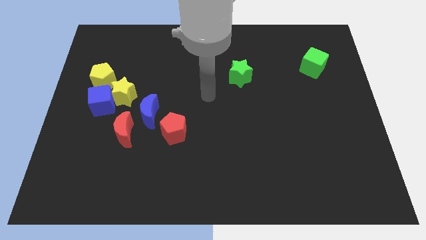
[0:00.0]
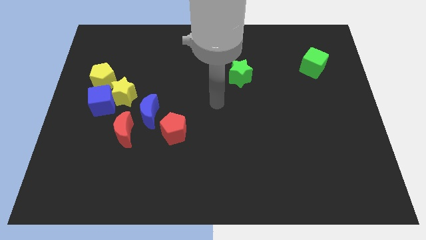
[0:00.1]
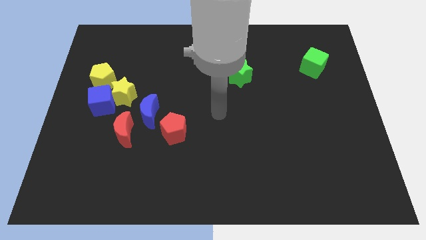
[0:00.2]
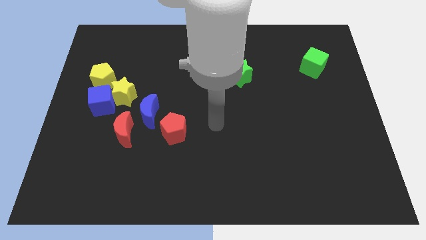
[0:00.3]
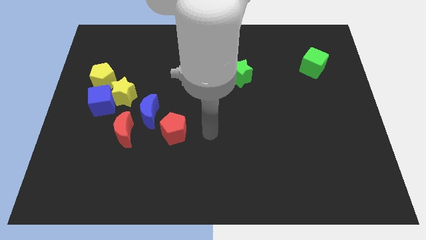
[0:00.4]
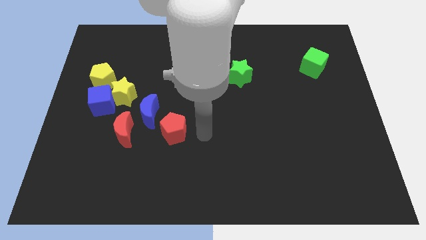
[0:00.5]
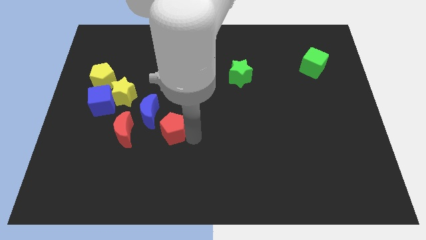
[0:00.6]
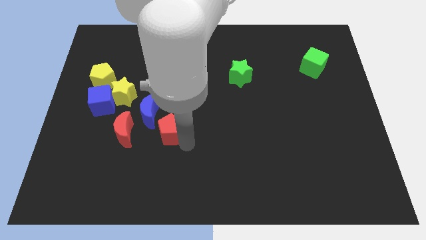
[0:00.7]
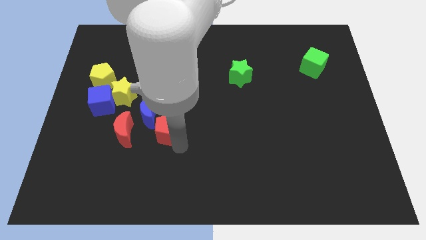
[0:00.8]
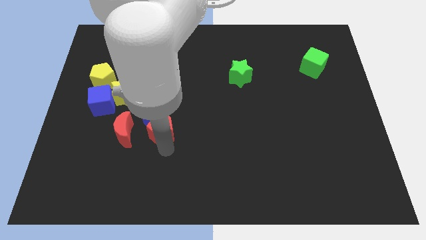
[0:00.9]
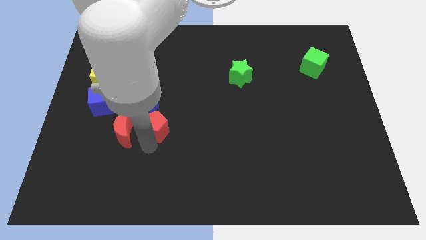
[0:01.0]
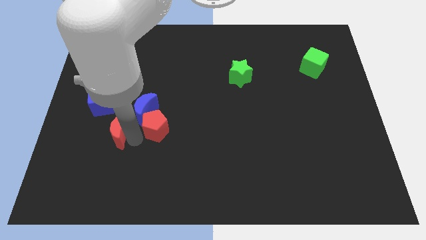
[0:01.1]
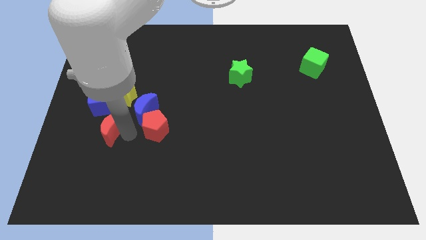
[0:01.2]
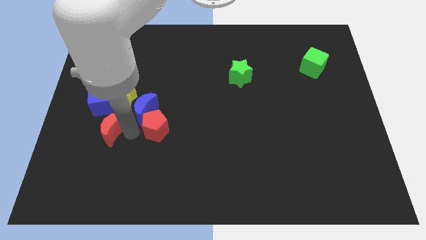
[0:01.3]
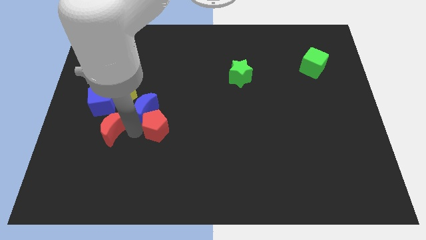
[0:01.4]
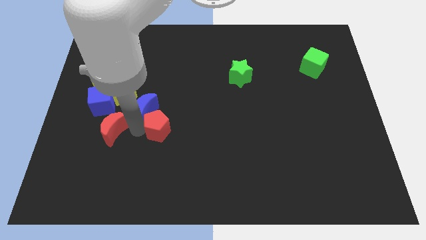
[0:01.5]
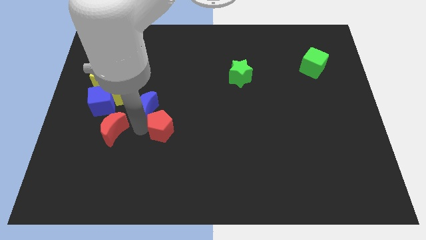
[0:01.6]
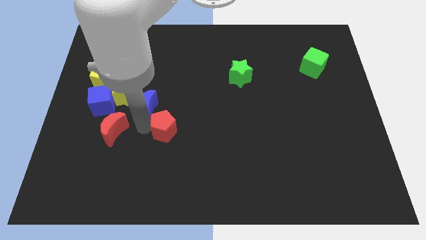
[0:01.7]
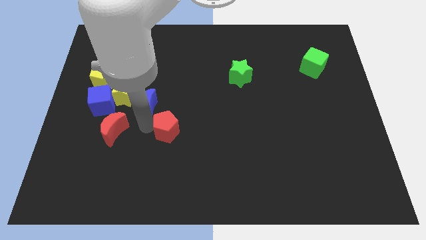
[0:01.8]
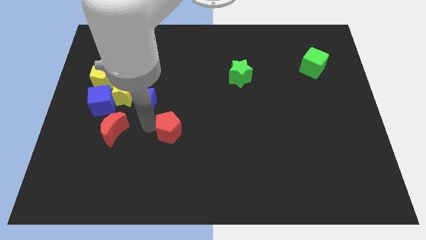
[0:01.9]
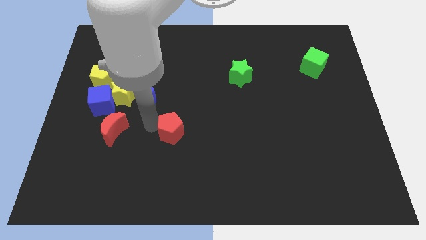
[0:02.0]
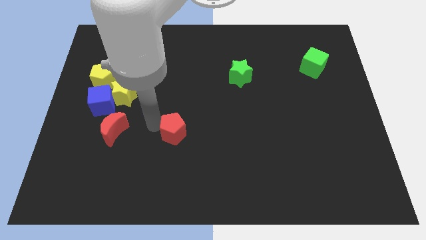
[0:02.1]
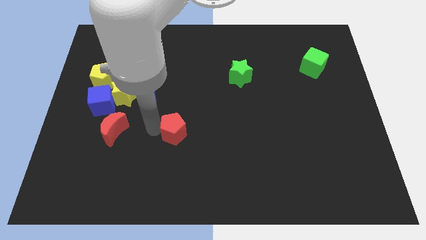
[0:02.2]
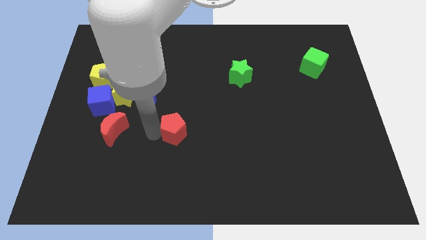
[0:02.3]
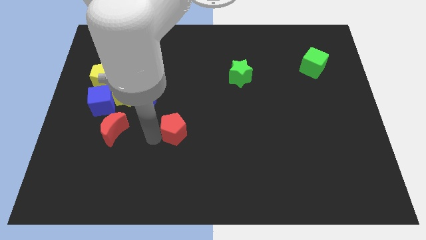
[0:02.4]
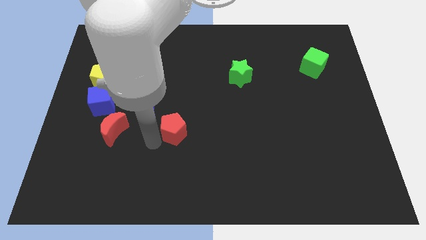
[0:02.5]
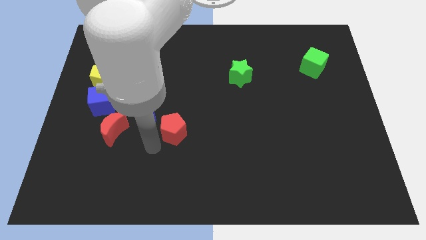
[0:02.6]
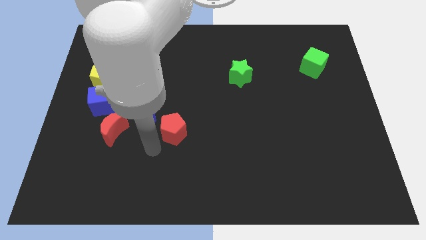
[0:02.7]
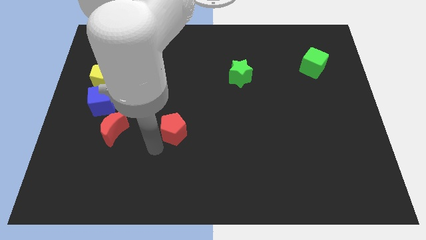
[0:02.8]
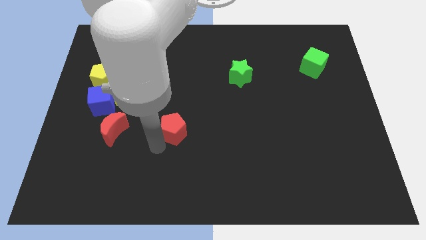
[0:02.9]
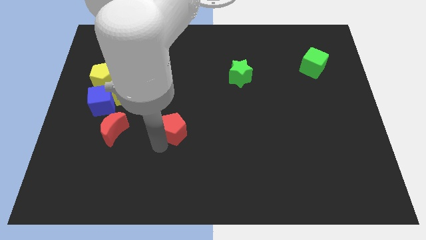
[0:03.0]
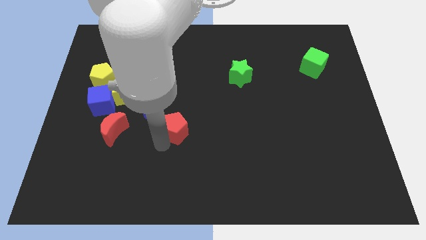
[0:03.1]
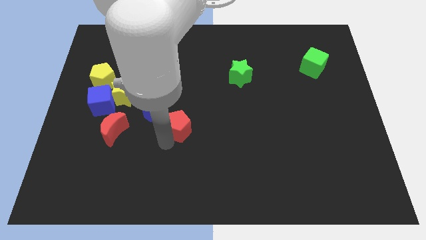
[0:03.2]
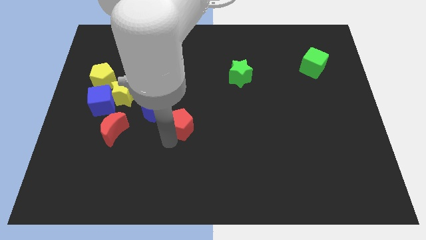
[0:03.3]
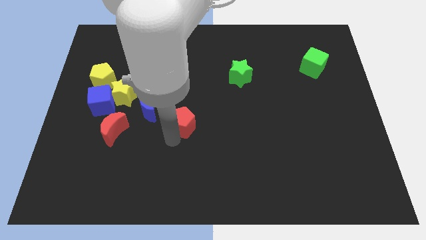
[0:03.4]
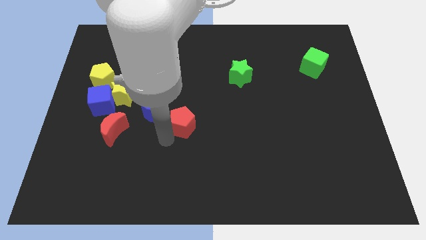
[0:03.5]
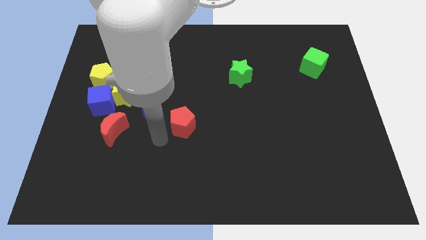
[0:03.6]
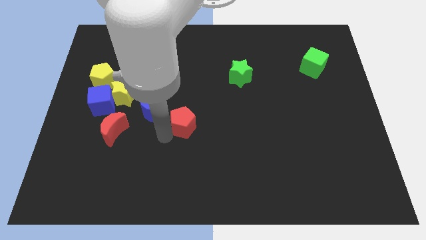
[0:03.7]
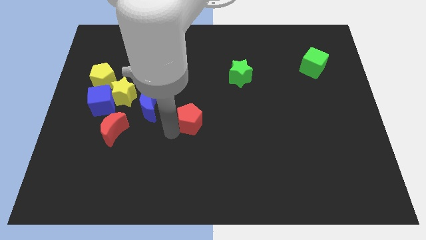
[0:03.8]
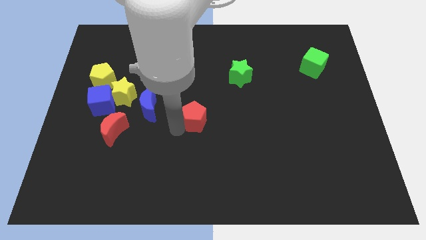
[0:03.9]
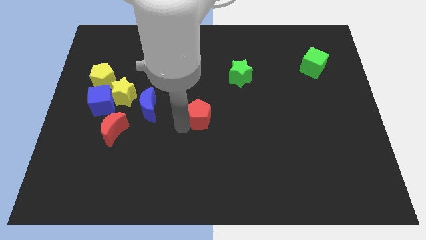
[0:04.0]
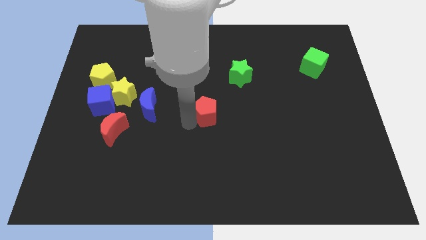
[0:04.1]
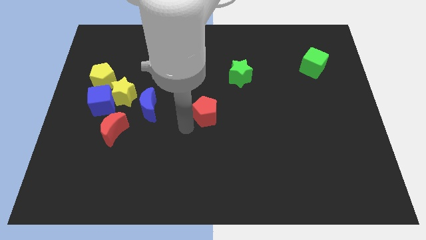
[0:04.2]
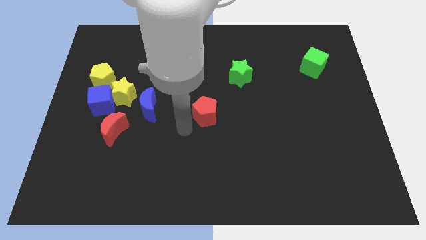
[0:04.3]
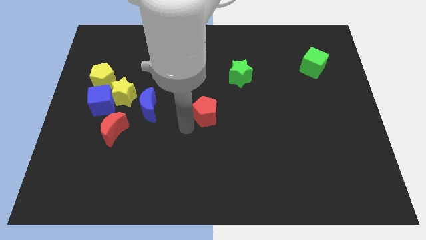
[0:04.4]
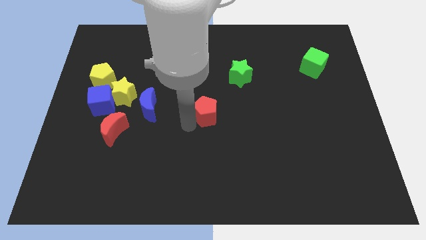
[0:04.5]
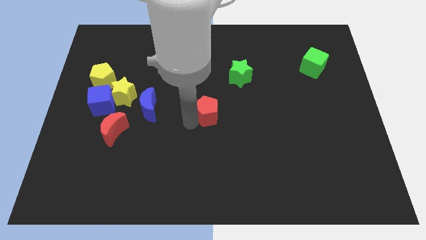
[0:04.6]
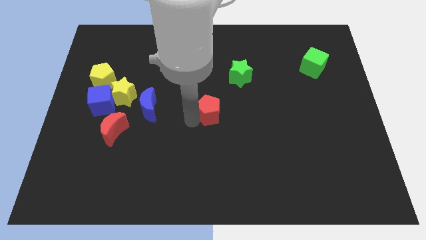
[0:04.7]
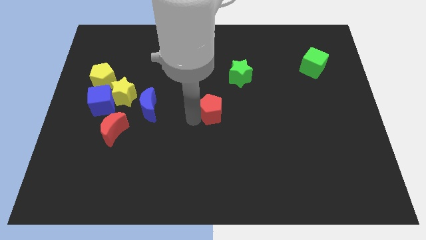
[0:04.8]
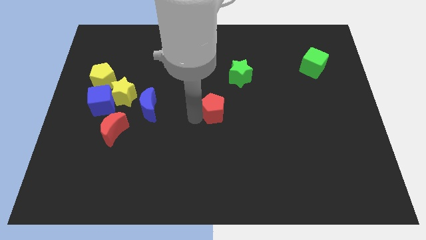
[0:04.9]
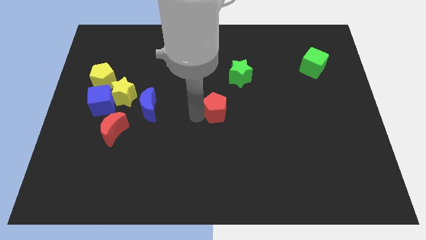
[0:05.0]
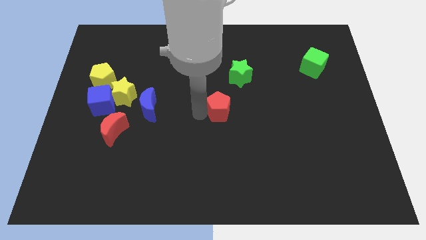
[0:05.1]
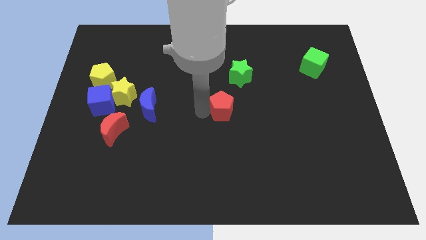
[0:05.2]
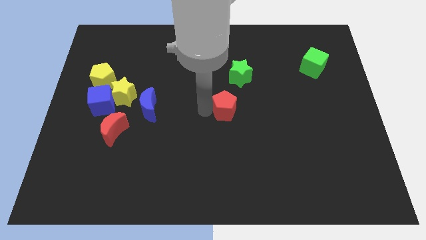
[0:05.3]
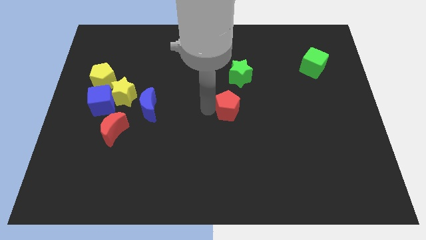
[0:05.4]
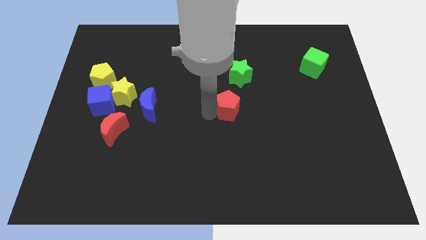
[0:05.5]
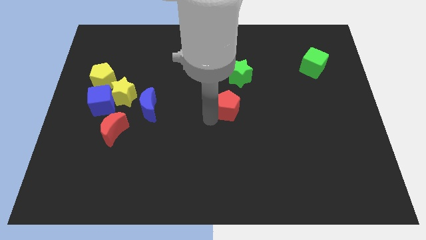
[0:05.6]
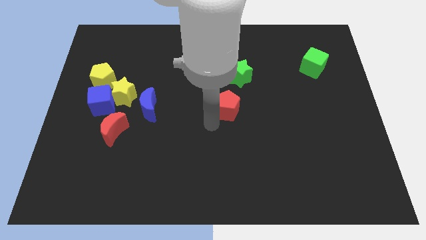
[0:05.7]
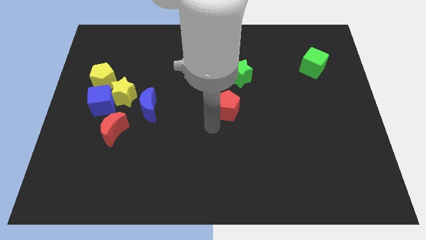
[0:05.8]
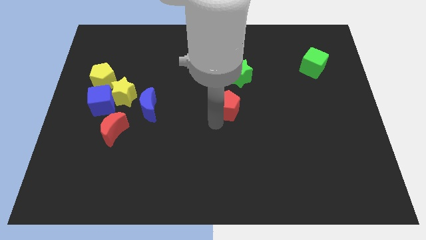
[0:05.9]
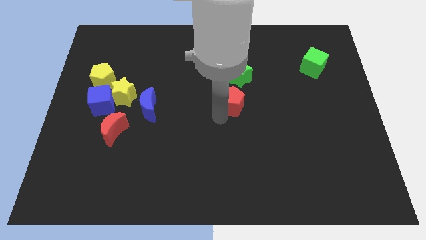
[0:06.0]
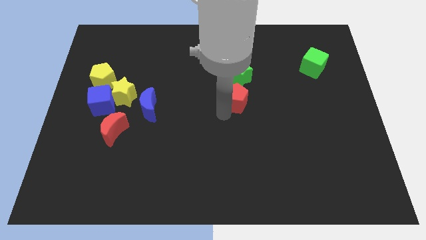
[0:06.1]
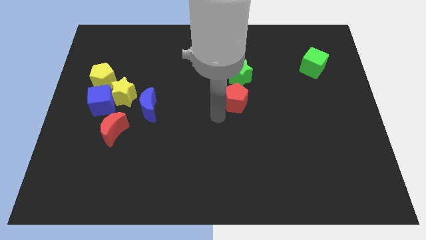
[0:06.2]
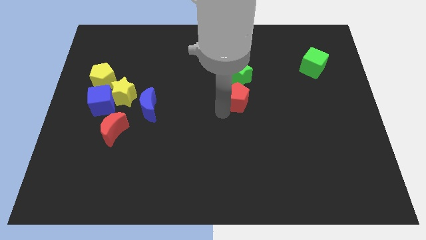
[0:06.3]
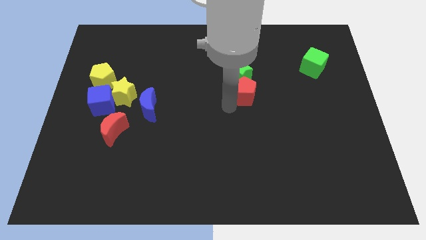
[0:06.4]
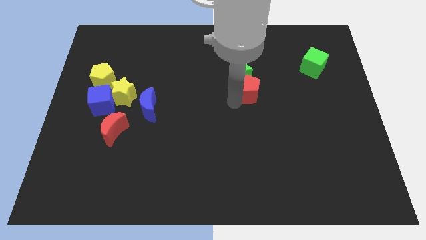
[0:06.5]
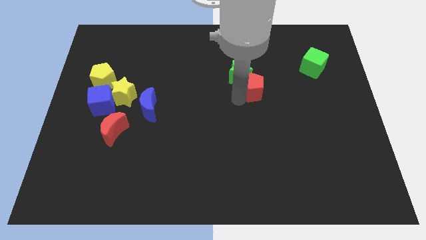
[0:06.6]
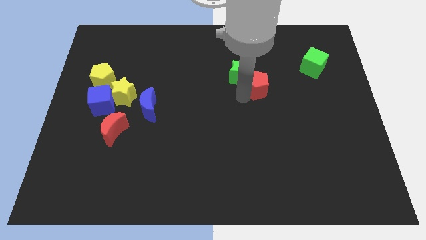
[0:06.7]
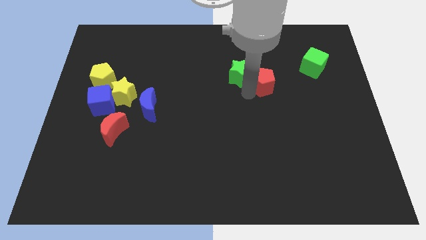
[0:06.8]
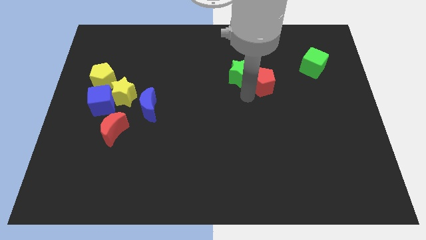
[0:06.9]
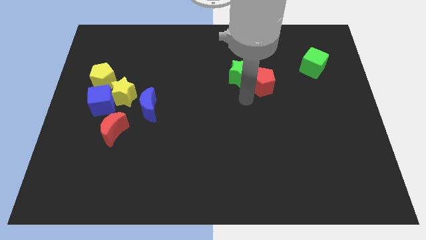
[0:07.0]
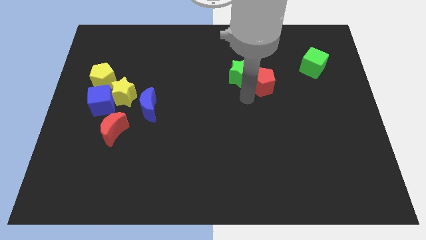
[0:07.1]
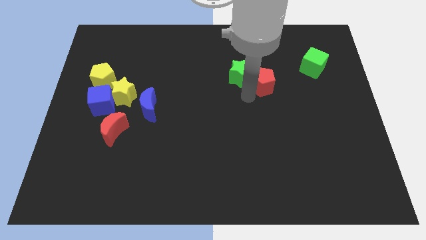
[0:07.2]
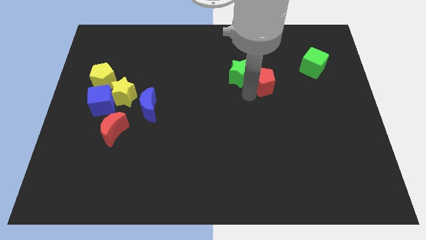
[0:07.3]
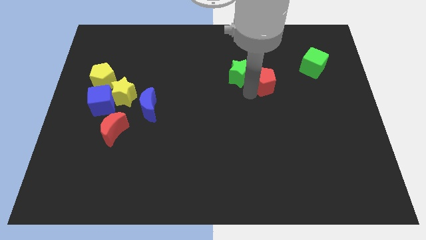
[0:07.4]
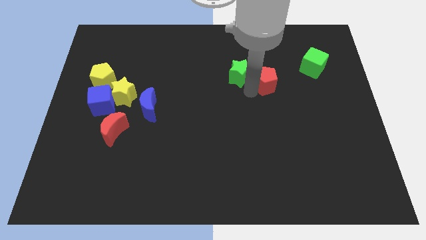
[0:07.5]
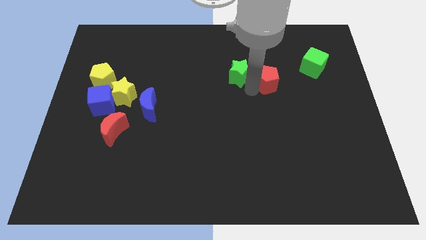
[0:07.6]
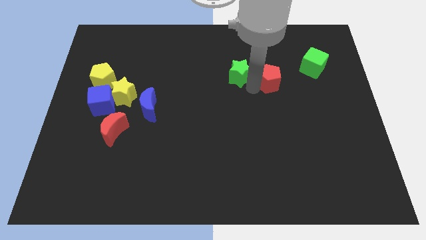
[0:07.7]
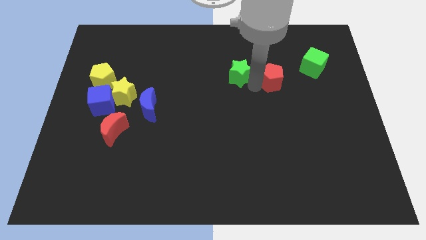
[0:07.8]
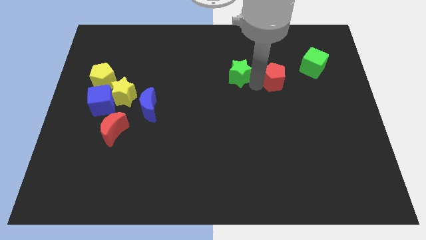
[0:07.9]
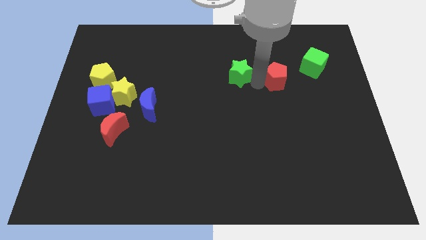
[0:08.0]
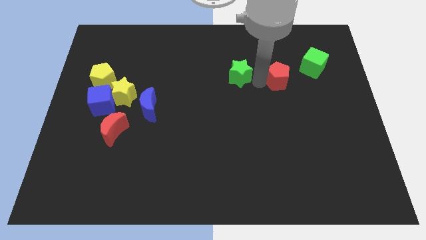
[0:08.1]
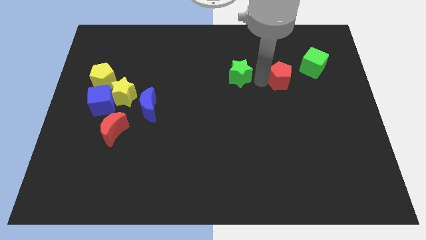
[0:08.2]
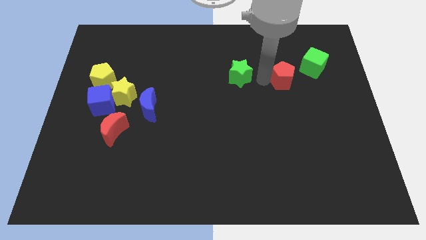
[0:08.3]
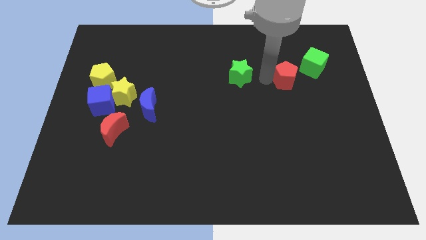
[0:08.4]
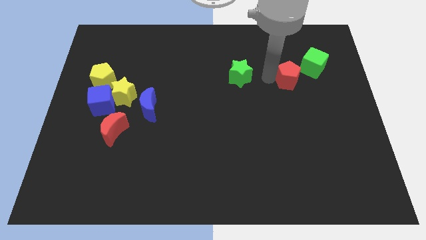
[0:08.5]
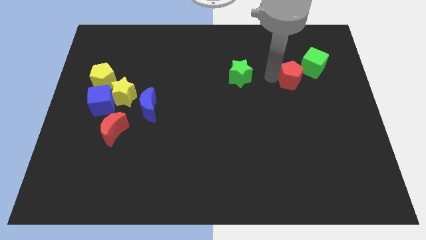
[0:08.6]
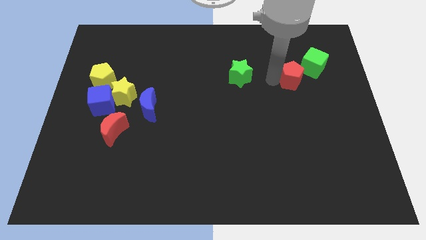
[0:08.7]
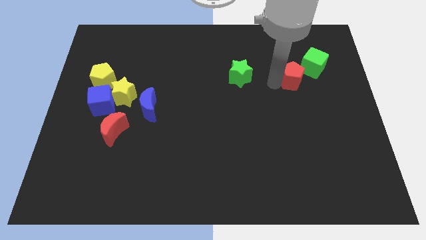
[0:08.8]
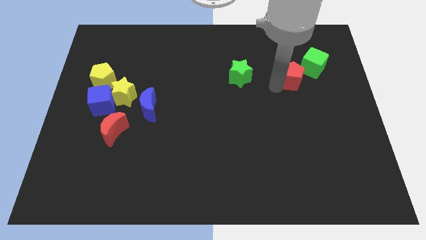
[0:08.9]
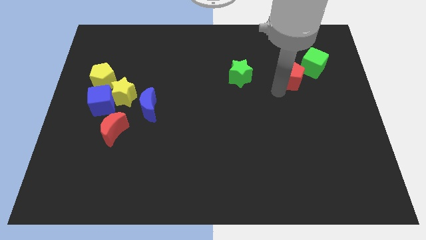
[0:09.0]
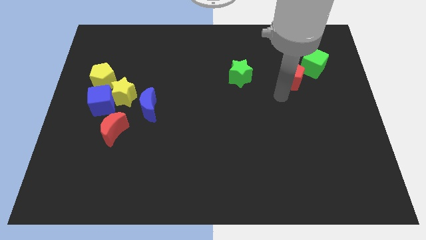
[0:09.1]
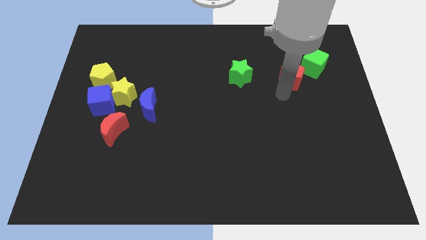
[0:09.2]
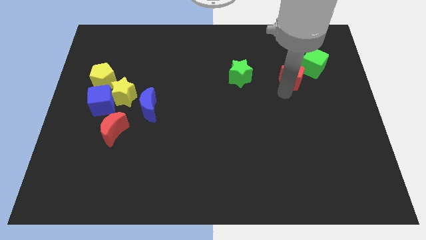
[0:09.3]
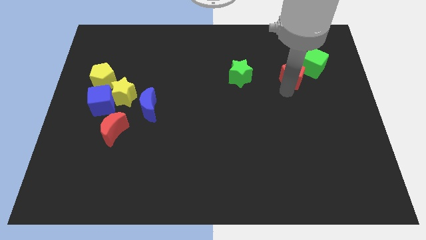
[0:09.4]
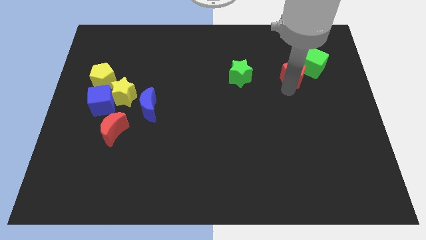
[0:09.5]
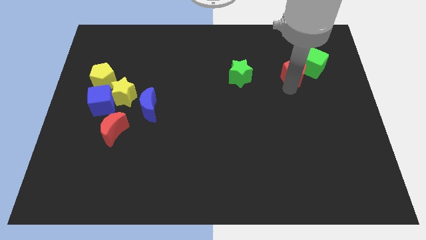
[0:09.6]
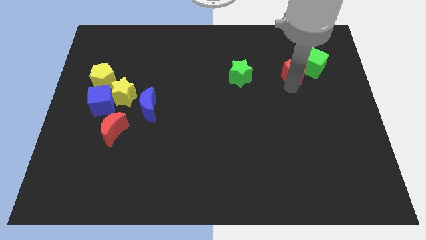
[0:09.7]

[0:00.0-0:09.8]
move the red pentagon close to the green cube
